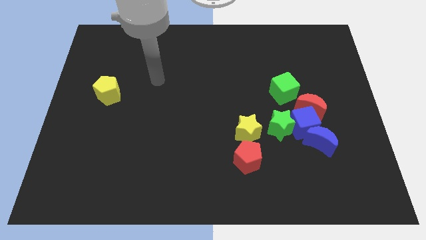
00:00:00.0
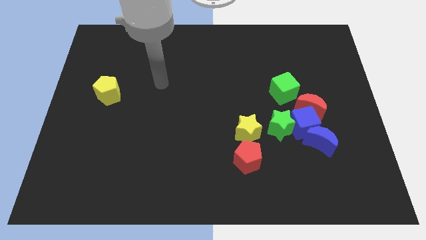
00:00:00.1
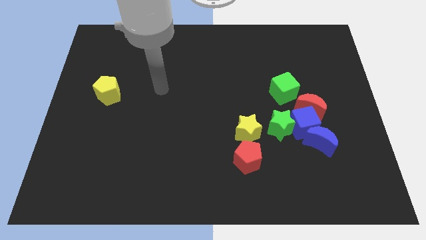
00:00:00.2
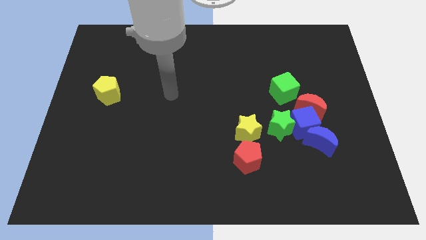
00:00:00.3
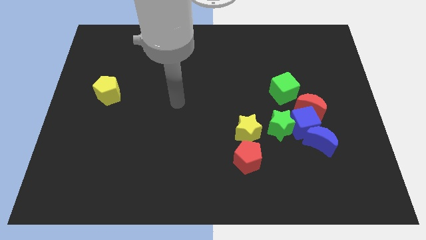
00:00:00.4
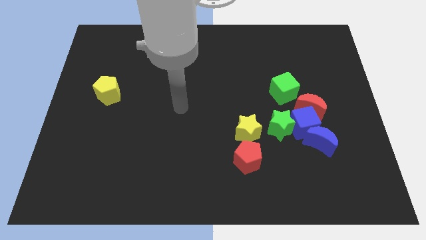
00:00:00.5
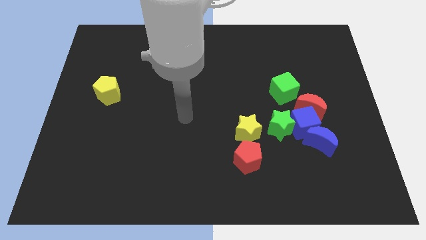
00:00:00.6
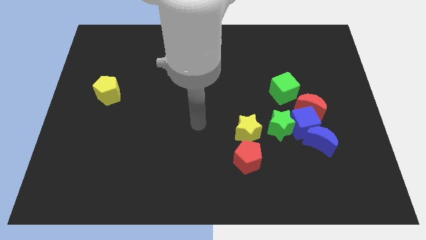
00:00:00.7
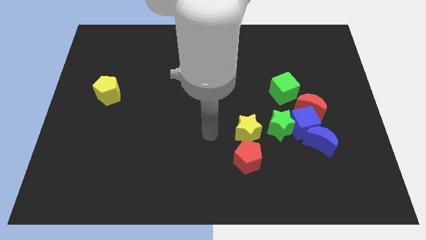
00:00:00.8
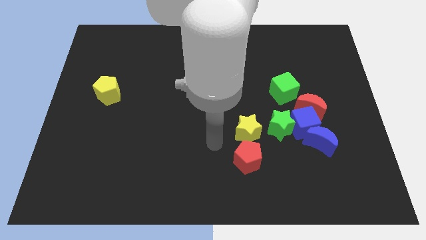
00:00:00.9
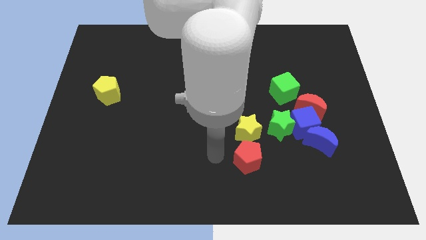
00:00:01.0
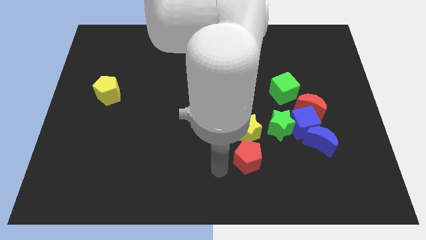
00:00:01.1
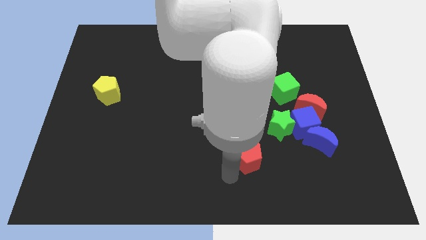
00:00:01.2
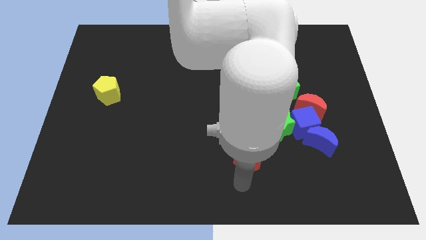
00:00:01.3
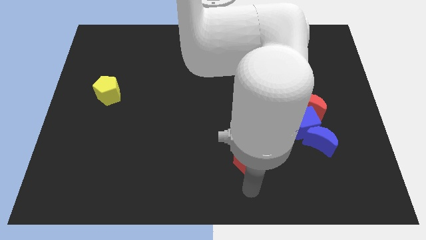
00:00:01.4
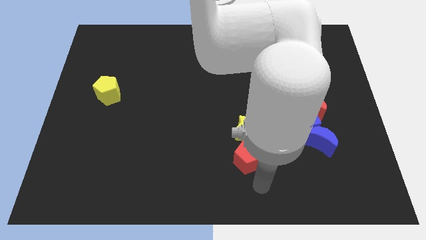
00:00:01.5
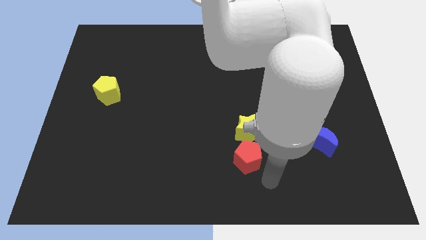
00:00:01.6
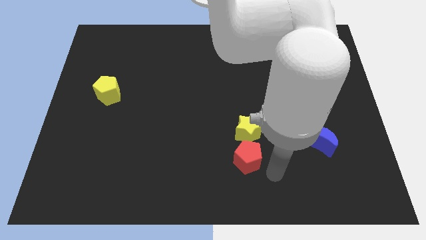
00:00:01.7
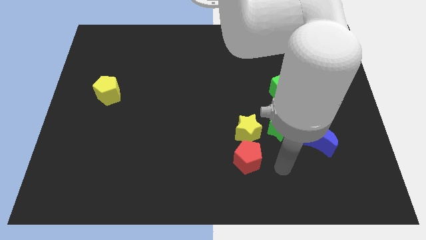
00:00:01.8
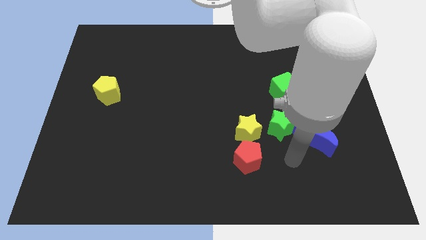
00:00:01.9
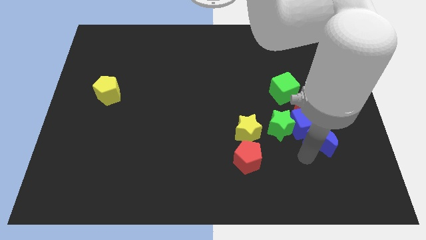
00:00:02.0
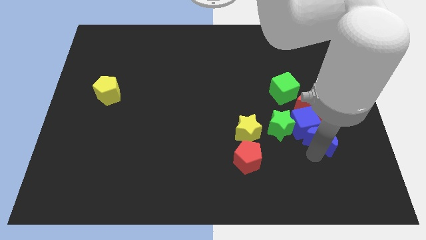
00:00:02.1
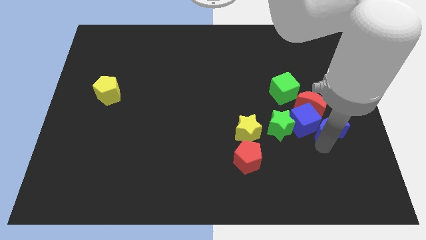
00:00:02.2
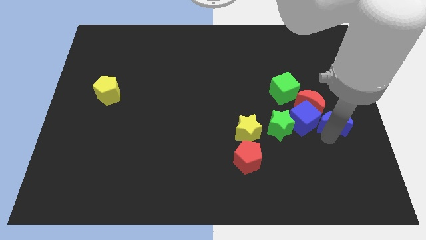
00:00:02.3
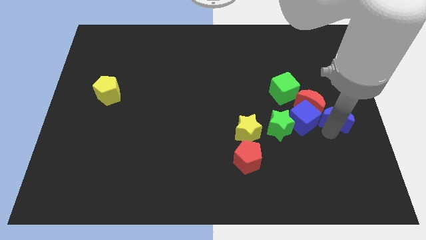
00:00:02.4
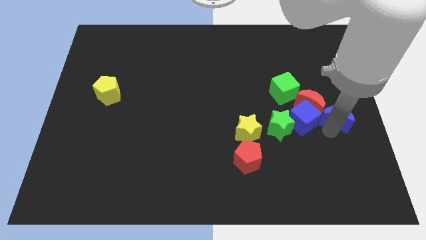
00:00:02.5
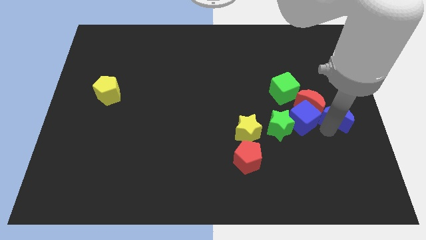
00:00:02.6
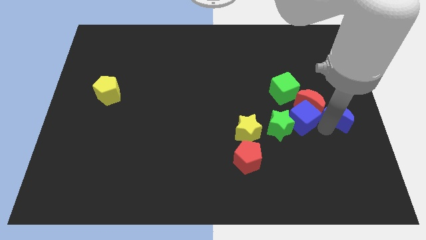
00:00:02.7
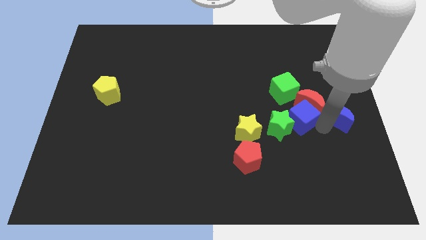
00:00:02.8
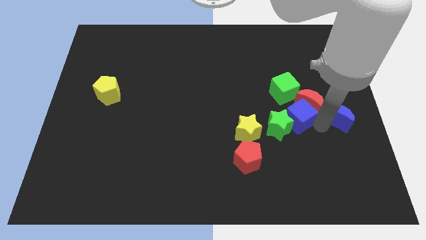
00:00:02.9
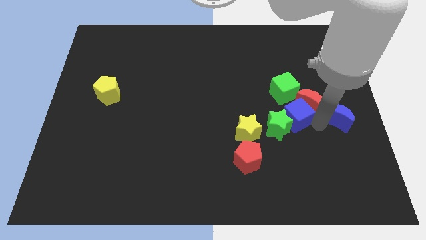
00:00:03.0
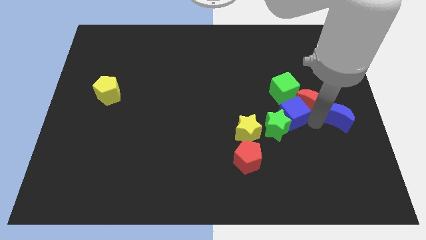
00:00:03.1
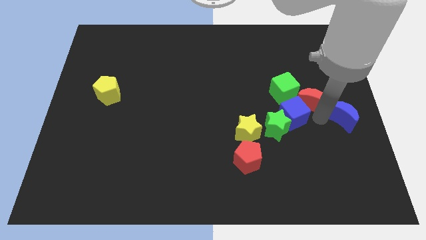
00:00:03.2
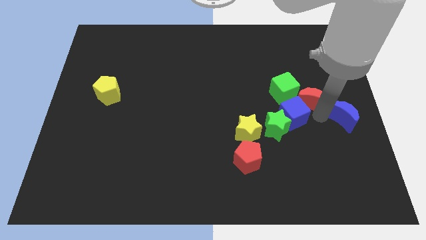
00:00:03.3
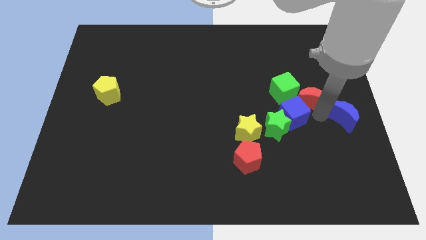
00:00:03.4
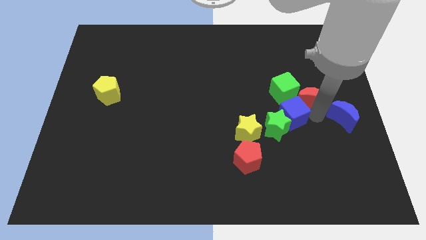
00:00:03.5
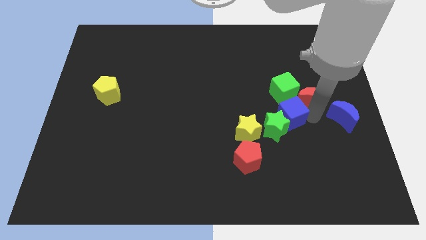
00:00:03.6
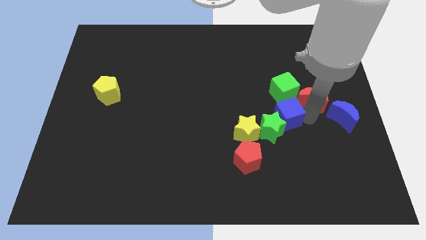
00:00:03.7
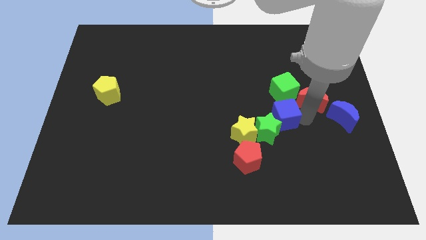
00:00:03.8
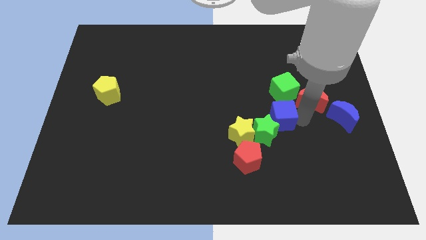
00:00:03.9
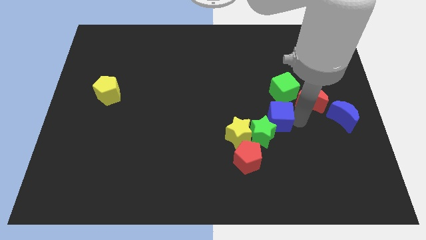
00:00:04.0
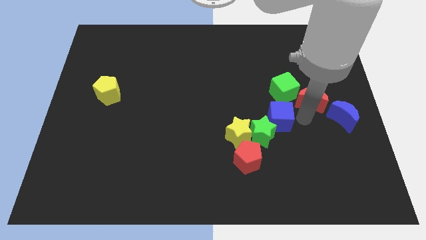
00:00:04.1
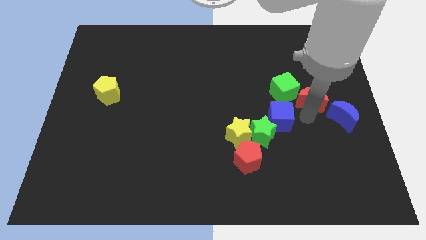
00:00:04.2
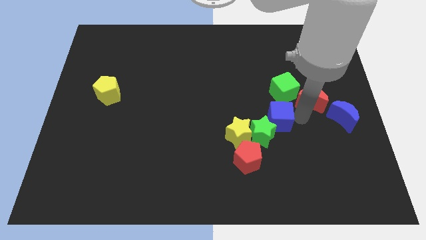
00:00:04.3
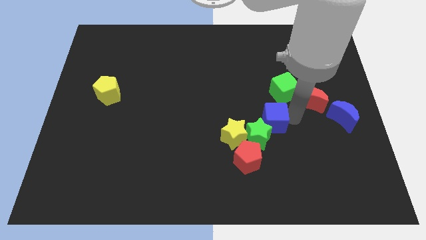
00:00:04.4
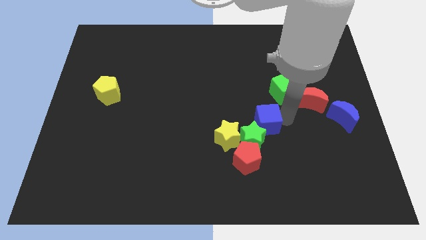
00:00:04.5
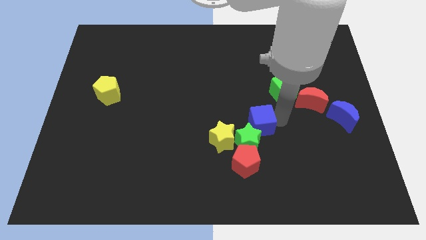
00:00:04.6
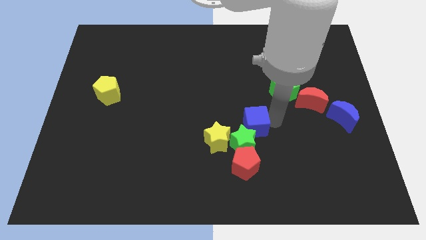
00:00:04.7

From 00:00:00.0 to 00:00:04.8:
pull the blue cube apart from the green star, red moon, and blue moon

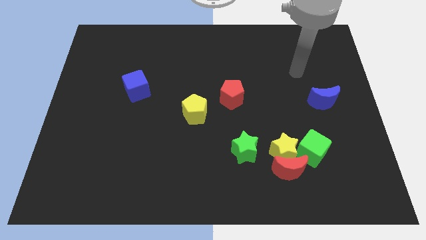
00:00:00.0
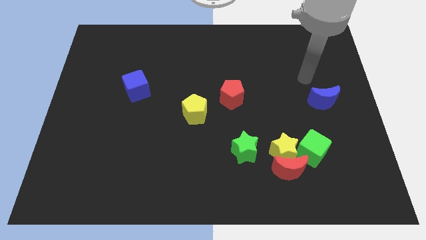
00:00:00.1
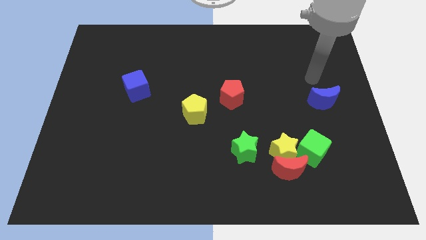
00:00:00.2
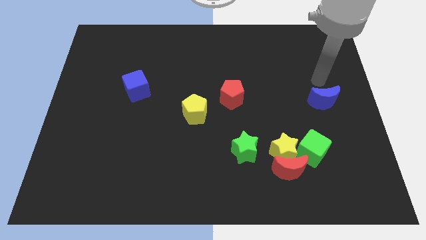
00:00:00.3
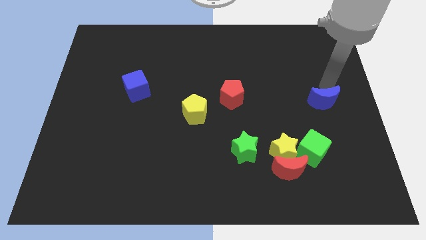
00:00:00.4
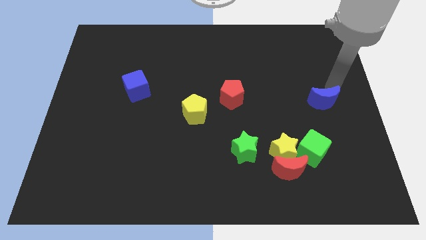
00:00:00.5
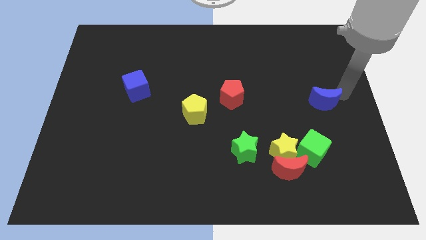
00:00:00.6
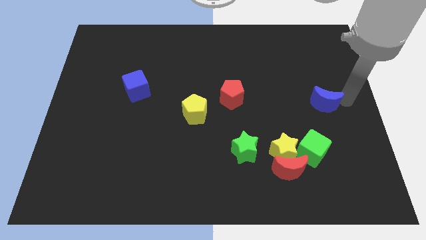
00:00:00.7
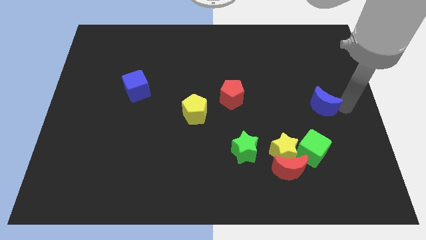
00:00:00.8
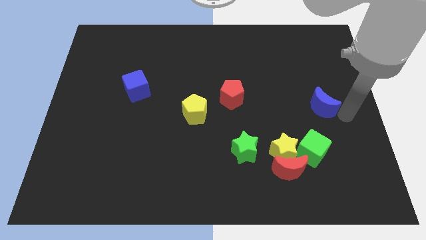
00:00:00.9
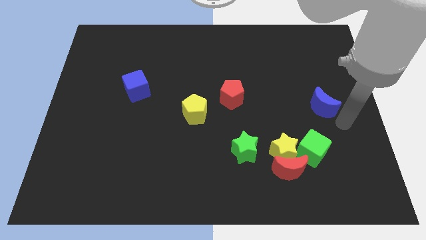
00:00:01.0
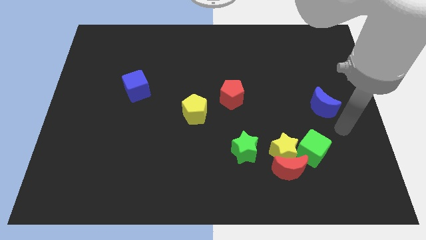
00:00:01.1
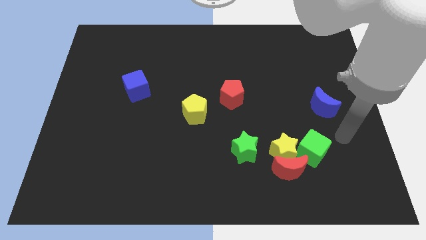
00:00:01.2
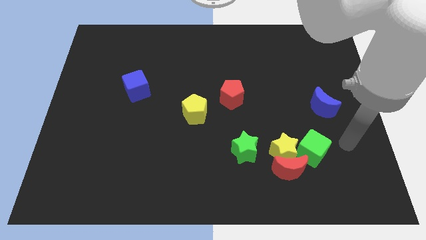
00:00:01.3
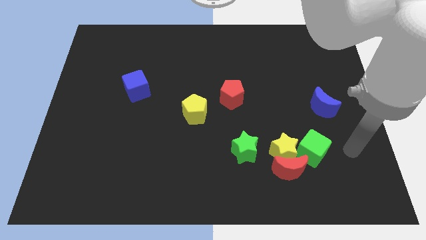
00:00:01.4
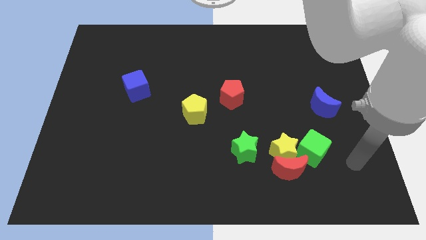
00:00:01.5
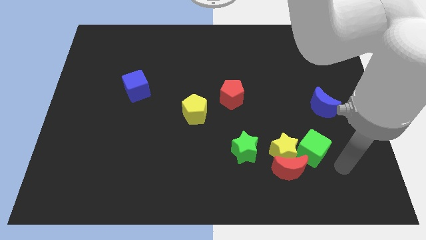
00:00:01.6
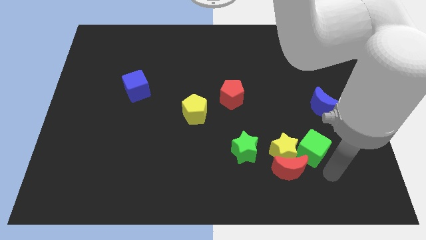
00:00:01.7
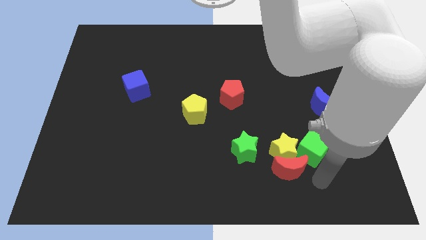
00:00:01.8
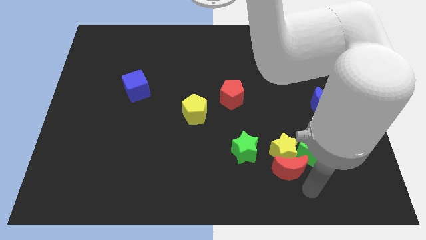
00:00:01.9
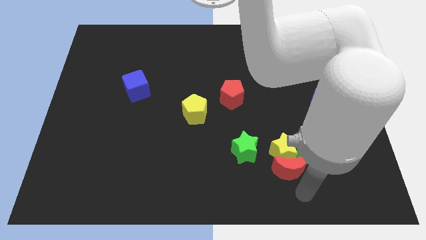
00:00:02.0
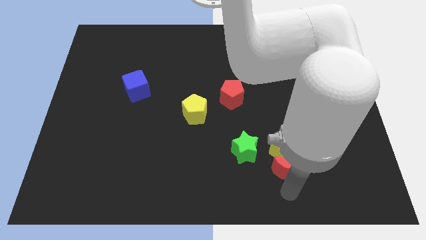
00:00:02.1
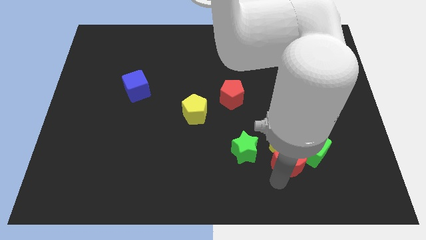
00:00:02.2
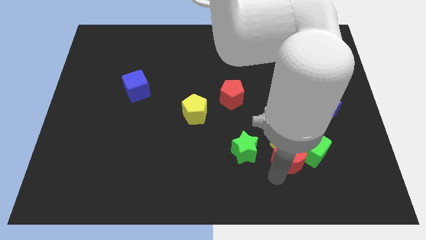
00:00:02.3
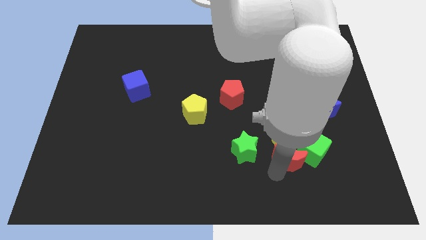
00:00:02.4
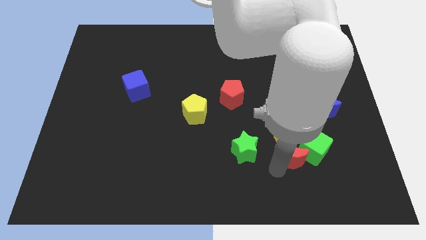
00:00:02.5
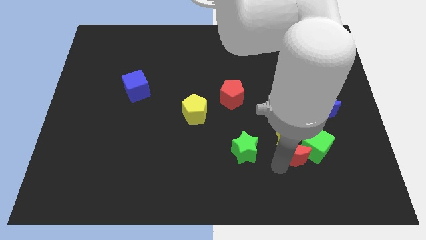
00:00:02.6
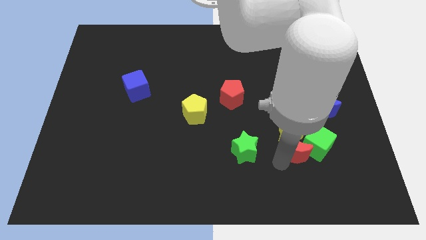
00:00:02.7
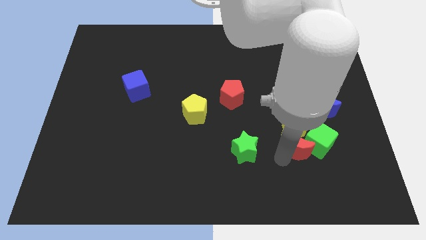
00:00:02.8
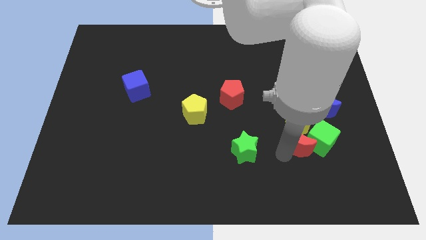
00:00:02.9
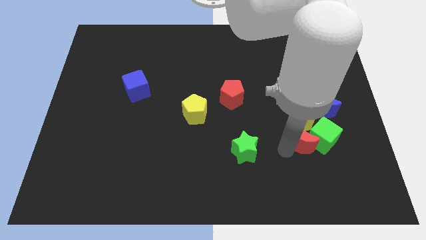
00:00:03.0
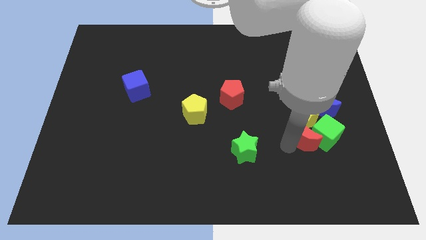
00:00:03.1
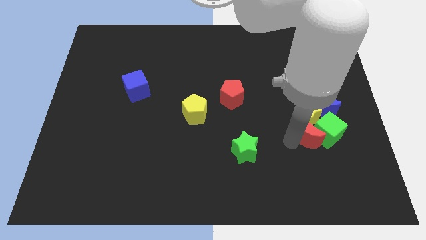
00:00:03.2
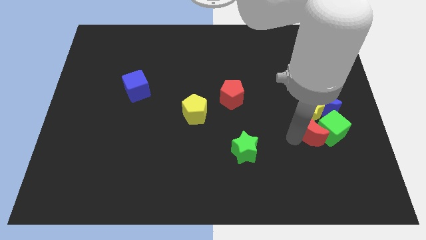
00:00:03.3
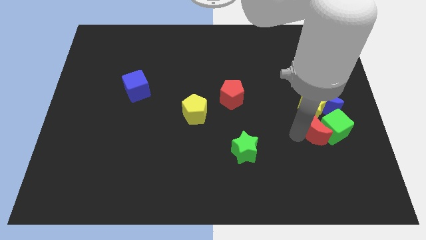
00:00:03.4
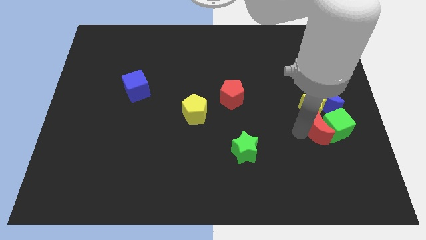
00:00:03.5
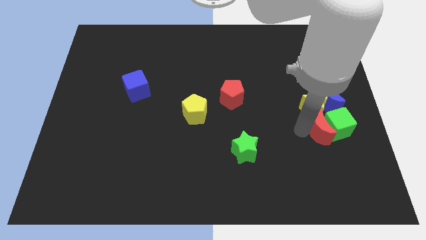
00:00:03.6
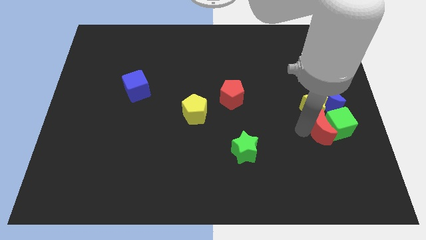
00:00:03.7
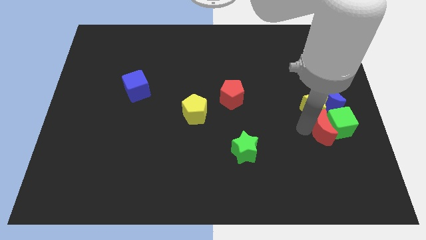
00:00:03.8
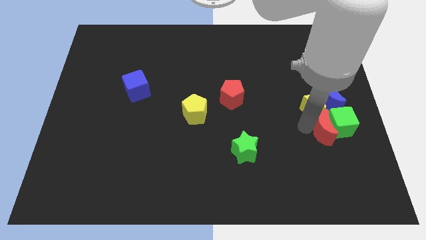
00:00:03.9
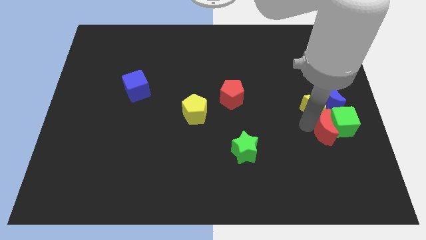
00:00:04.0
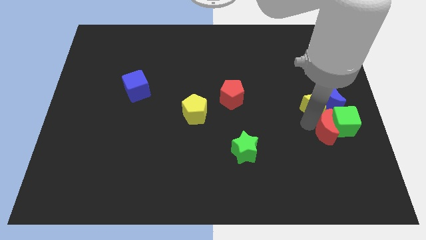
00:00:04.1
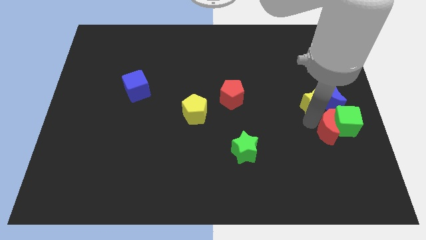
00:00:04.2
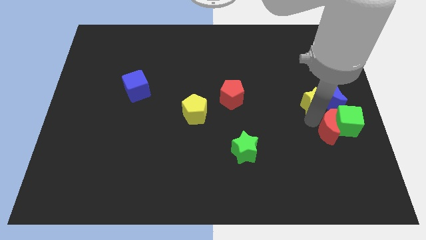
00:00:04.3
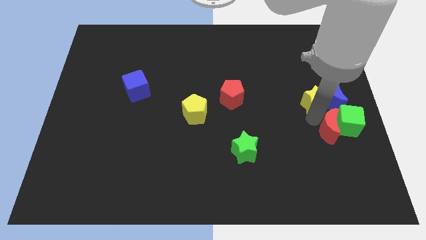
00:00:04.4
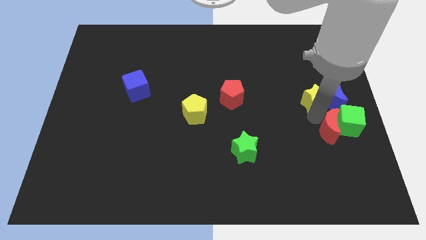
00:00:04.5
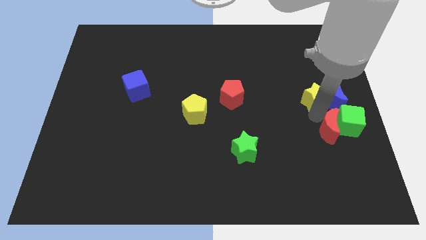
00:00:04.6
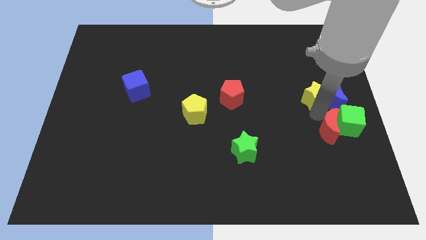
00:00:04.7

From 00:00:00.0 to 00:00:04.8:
separate the yellow star from the red moon, green cube, and green star
